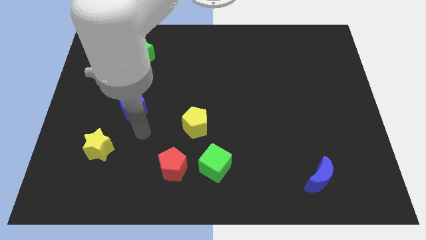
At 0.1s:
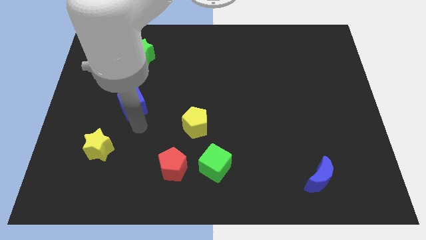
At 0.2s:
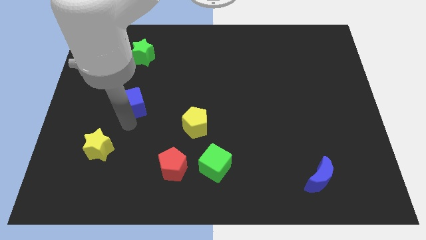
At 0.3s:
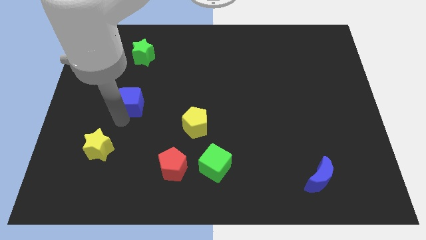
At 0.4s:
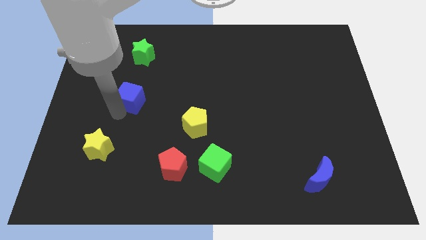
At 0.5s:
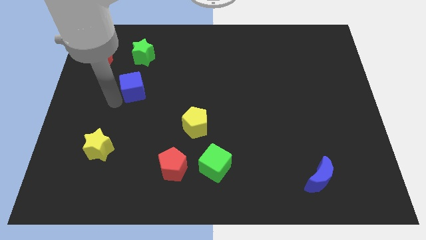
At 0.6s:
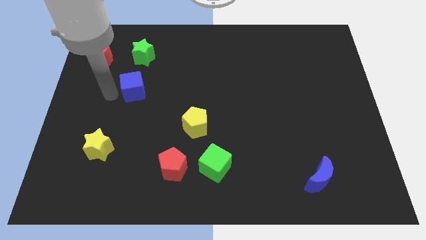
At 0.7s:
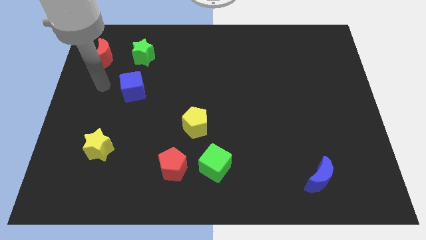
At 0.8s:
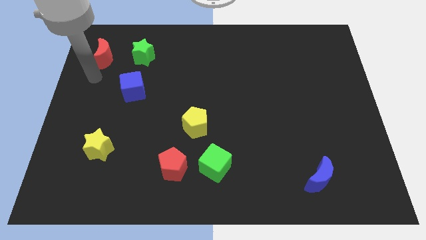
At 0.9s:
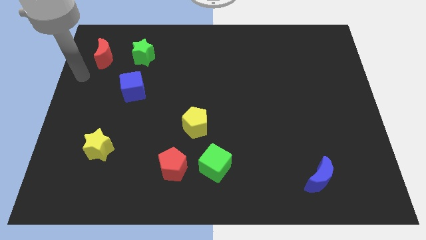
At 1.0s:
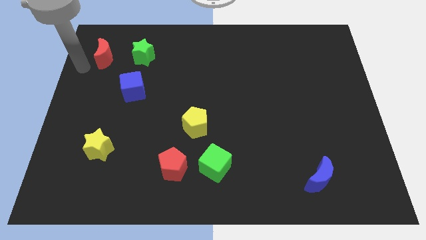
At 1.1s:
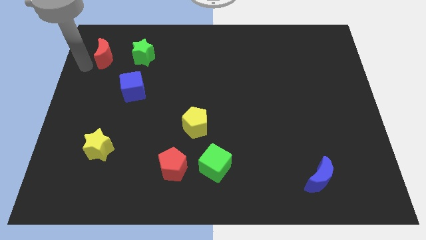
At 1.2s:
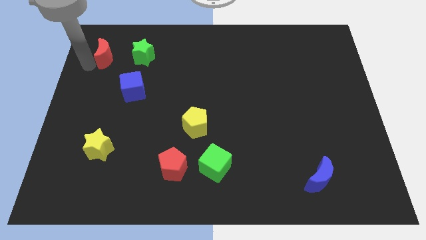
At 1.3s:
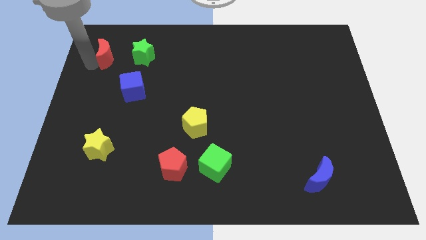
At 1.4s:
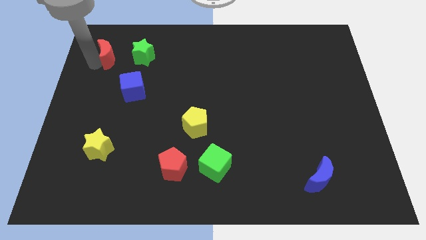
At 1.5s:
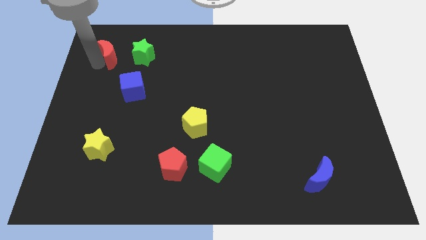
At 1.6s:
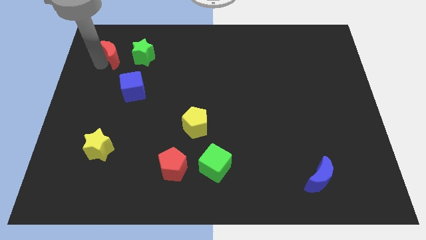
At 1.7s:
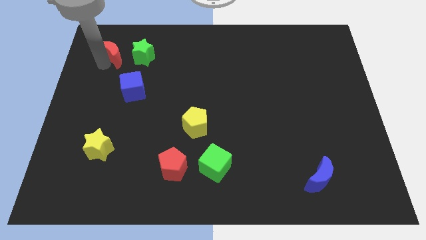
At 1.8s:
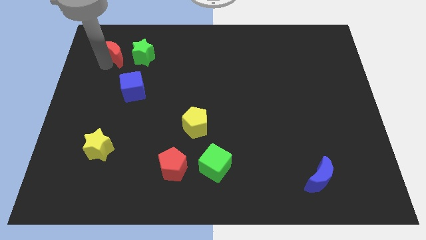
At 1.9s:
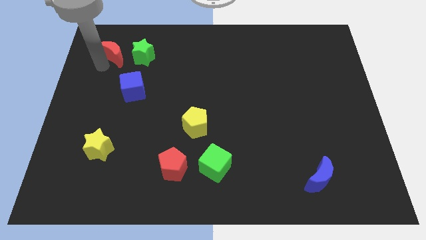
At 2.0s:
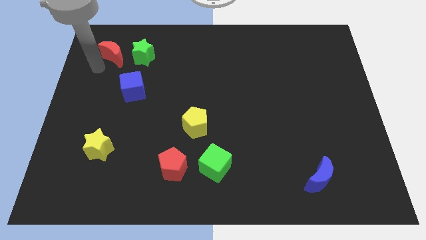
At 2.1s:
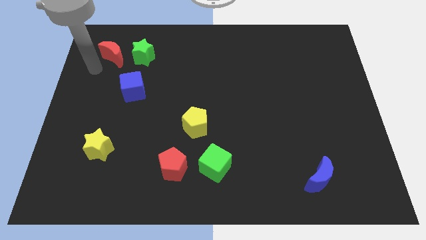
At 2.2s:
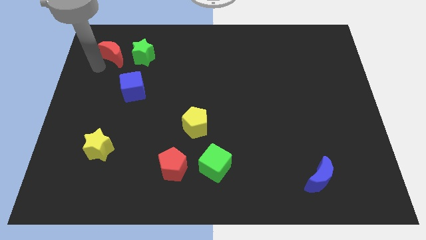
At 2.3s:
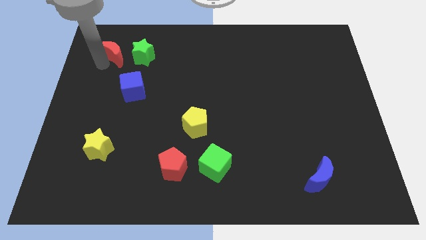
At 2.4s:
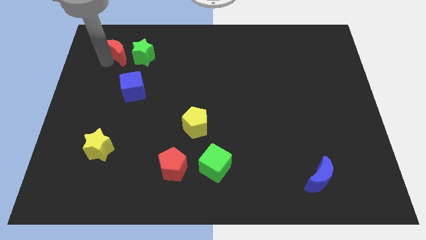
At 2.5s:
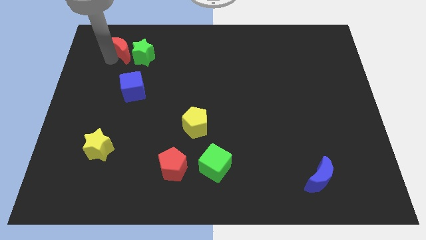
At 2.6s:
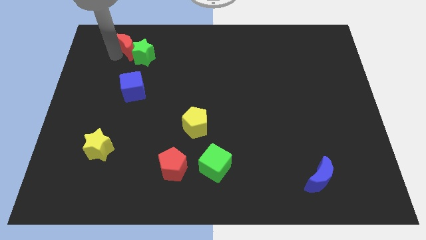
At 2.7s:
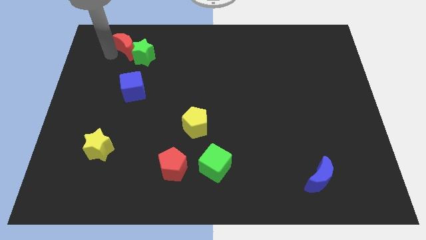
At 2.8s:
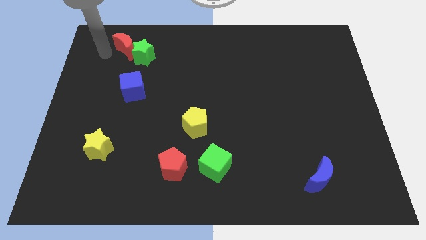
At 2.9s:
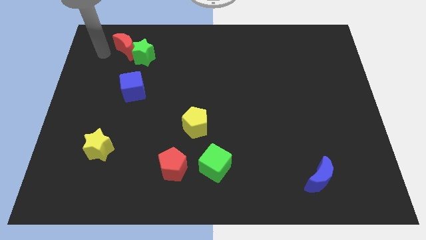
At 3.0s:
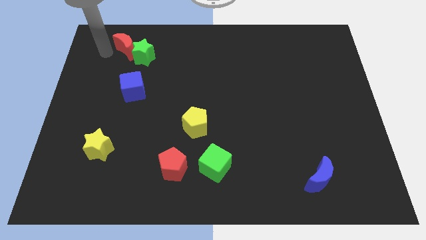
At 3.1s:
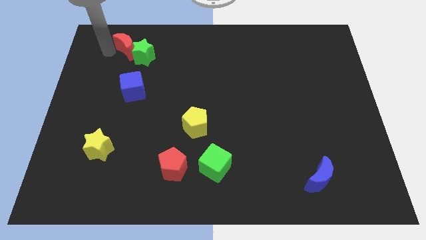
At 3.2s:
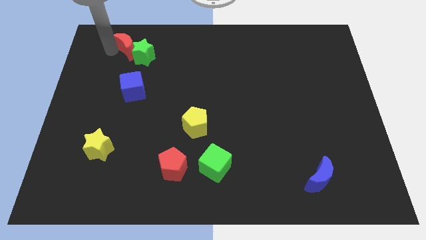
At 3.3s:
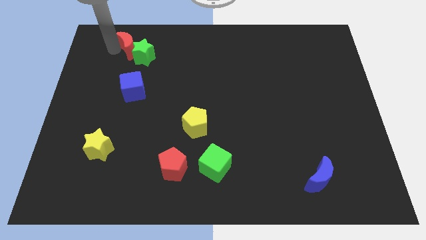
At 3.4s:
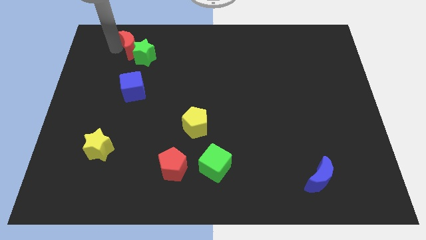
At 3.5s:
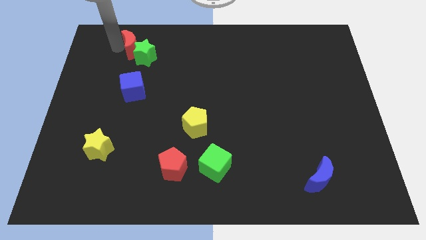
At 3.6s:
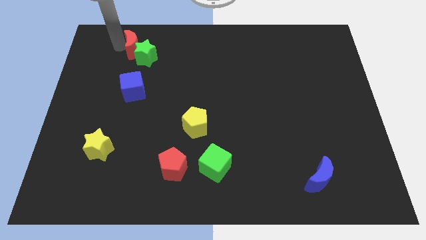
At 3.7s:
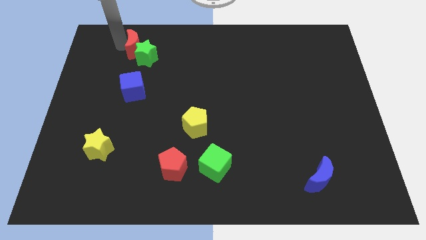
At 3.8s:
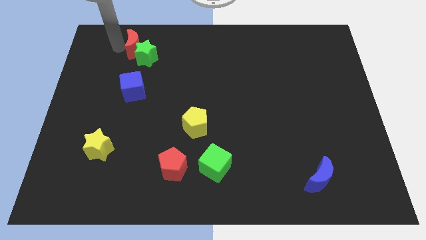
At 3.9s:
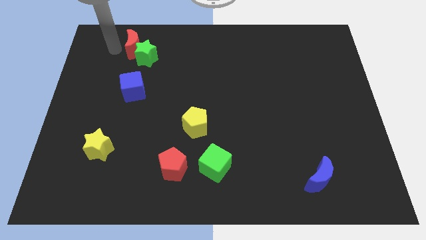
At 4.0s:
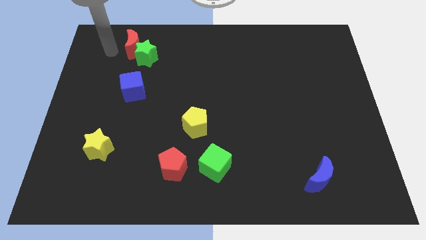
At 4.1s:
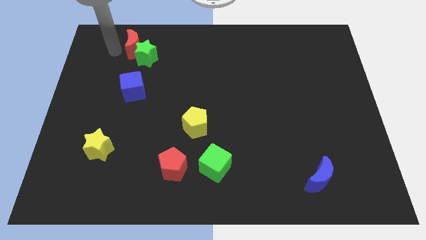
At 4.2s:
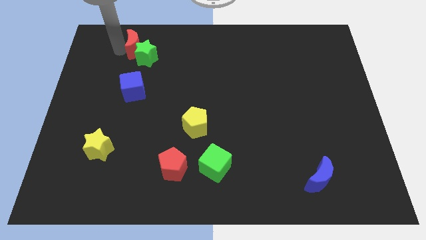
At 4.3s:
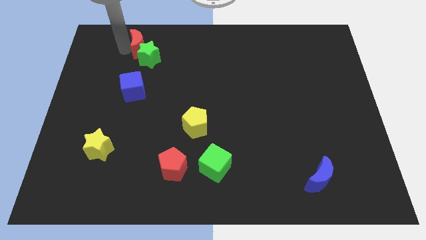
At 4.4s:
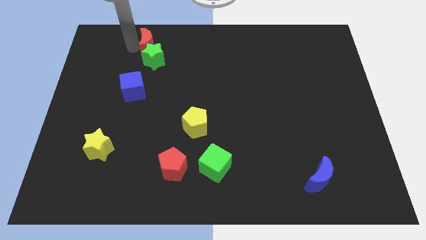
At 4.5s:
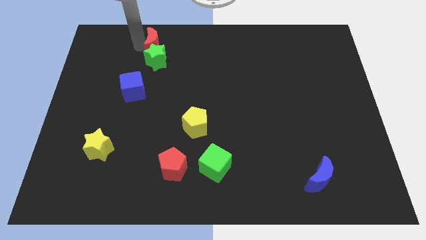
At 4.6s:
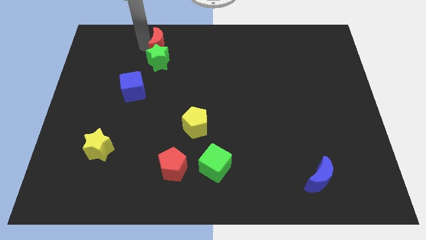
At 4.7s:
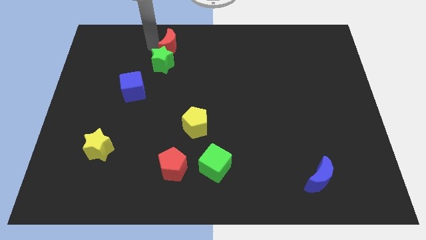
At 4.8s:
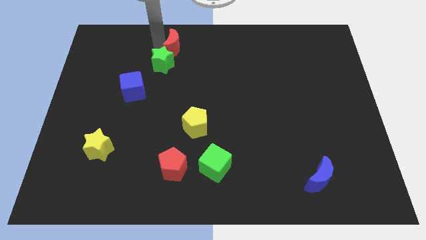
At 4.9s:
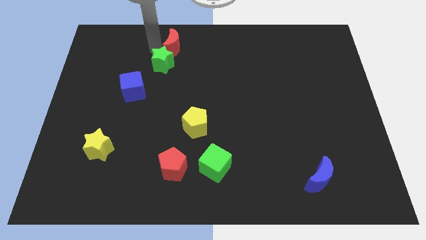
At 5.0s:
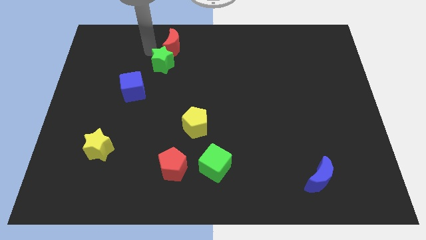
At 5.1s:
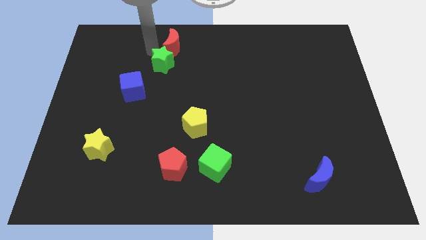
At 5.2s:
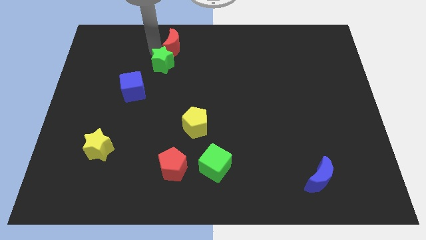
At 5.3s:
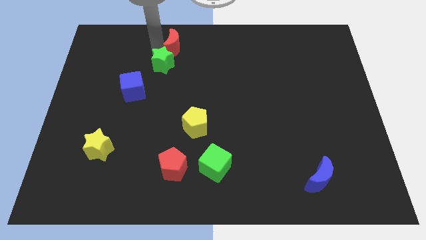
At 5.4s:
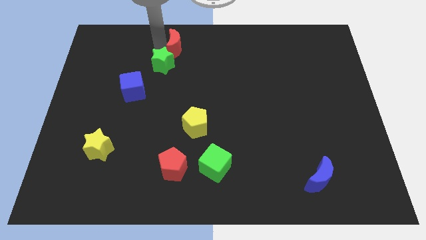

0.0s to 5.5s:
move the red moon to the top

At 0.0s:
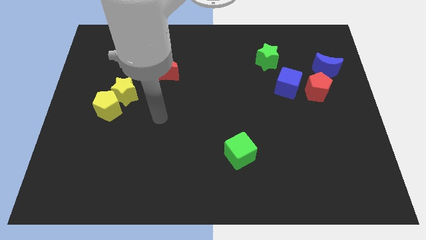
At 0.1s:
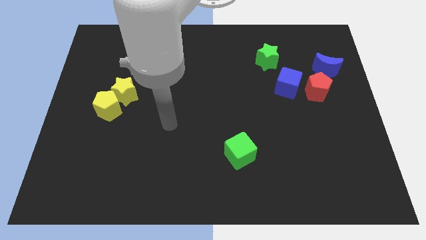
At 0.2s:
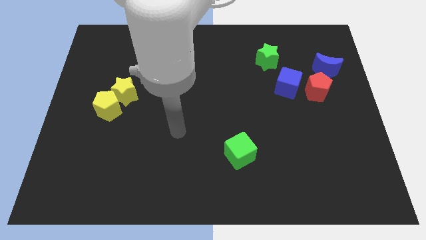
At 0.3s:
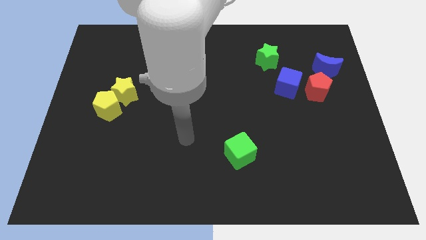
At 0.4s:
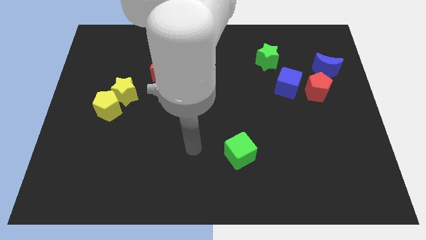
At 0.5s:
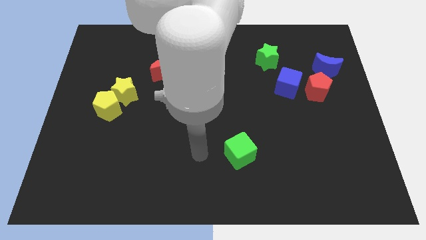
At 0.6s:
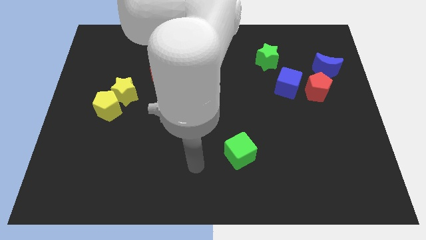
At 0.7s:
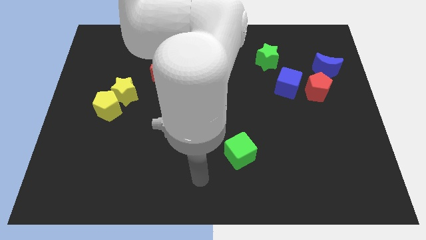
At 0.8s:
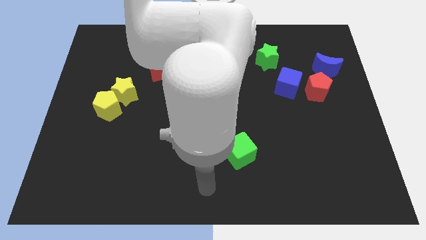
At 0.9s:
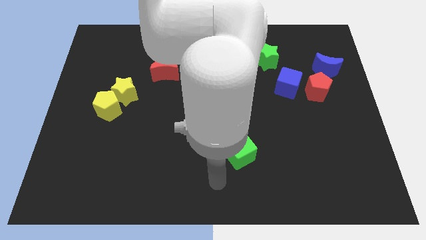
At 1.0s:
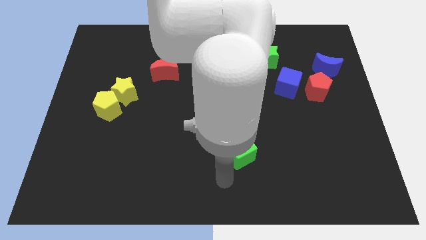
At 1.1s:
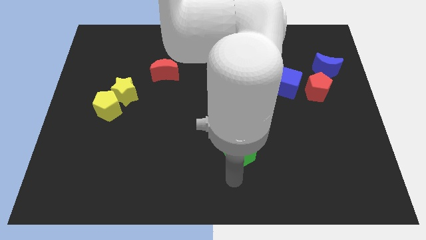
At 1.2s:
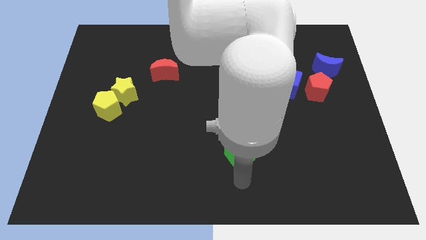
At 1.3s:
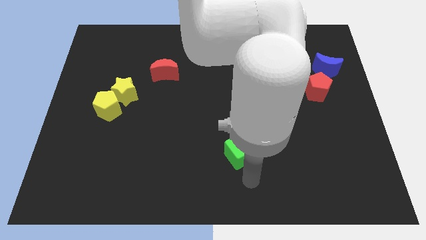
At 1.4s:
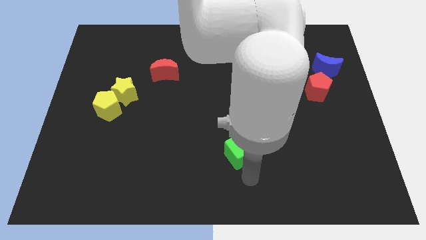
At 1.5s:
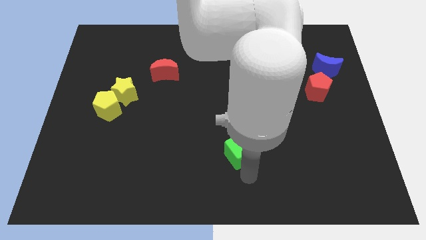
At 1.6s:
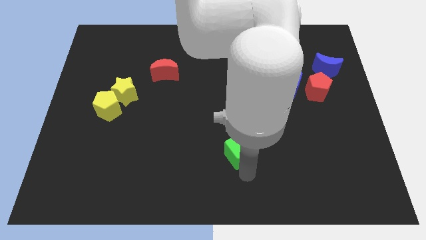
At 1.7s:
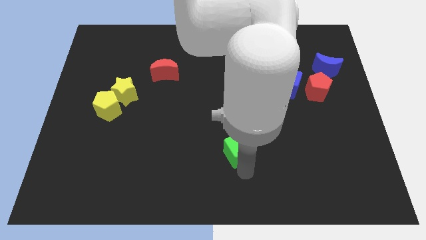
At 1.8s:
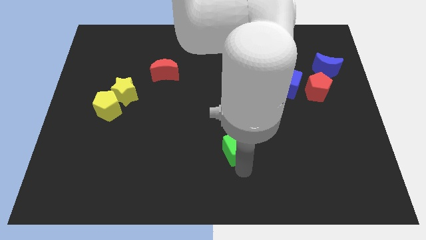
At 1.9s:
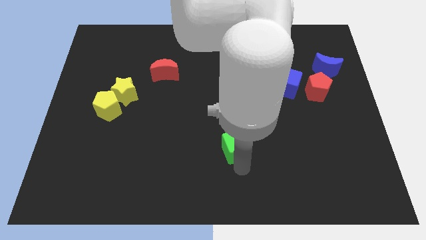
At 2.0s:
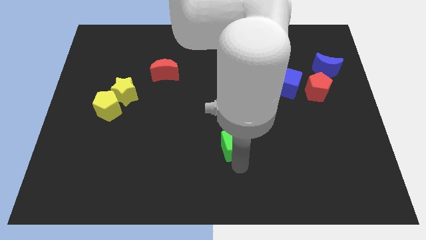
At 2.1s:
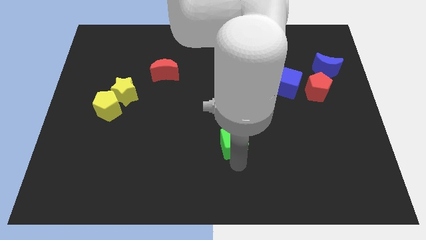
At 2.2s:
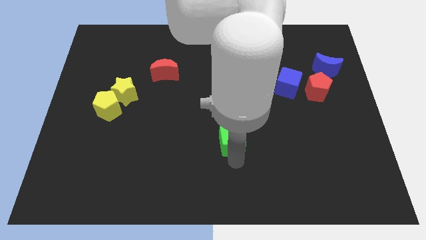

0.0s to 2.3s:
move the green cube to the middle of the board
